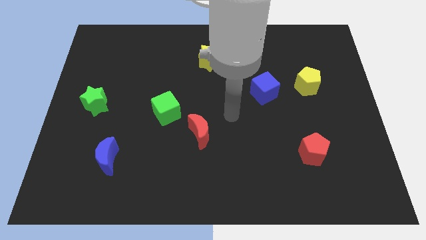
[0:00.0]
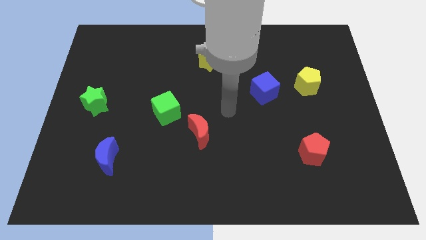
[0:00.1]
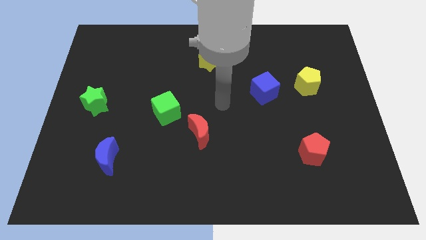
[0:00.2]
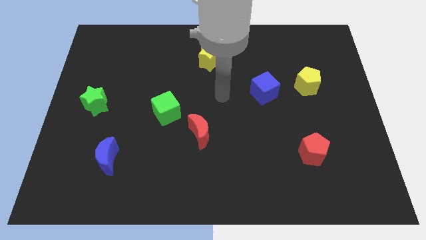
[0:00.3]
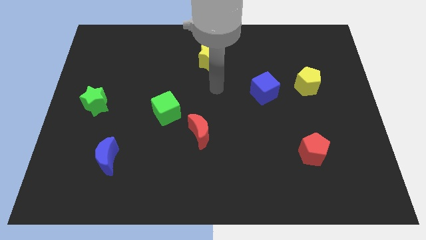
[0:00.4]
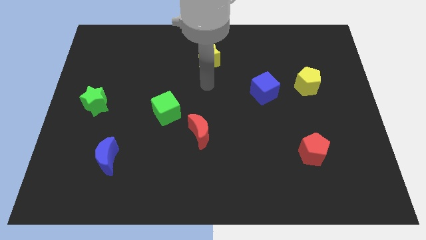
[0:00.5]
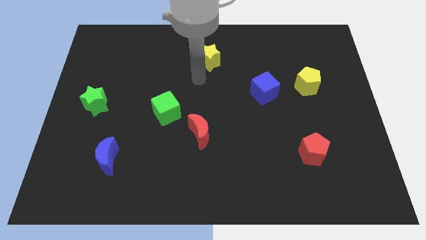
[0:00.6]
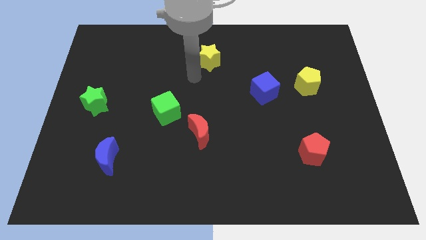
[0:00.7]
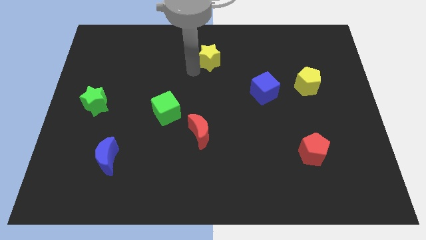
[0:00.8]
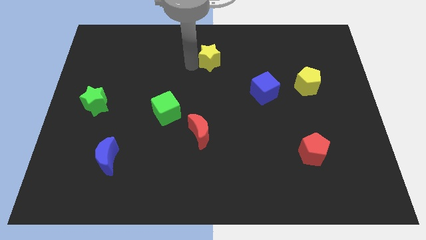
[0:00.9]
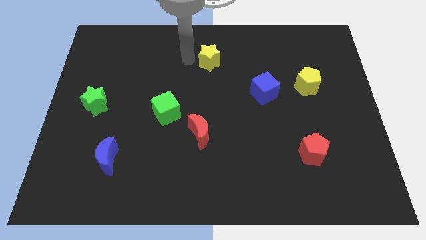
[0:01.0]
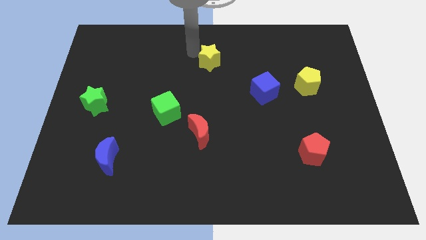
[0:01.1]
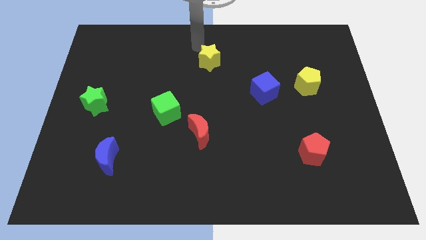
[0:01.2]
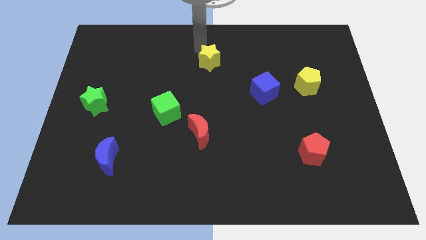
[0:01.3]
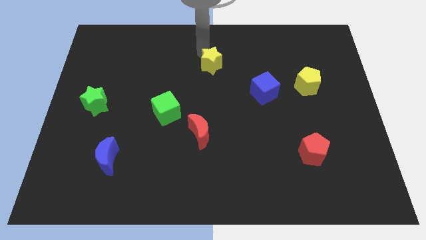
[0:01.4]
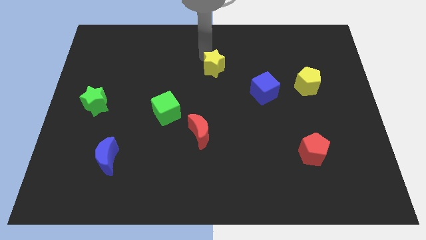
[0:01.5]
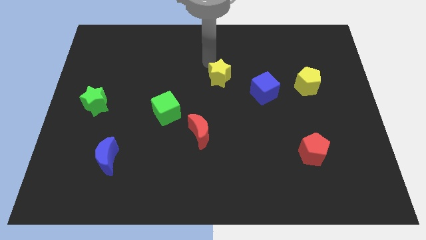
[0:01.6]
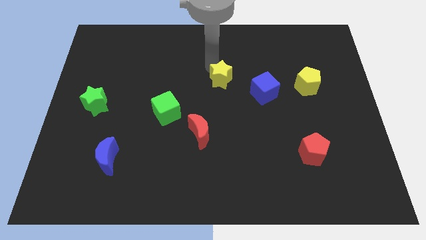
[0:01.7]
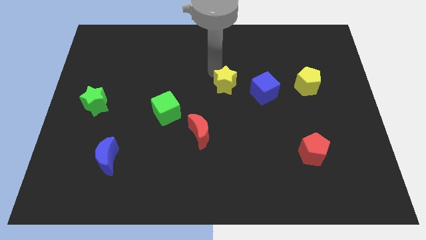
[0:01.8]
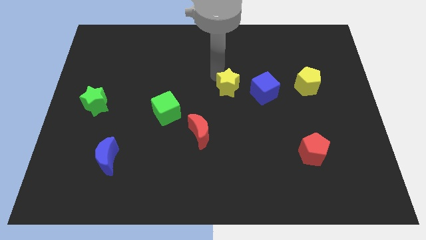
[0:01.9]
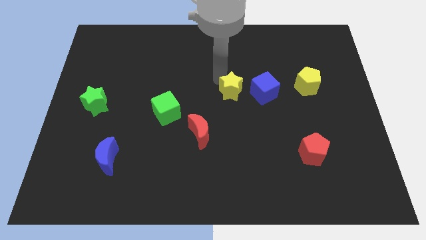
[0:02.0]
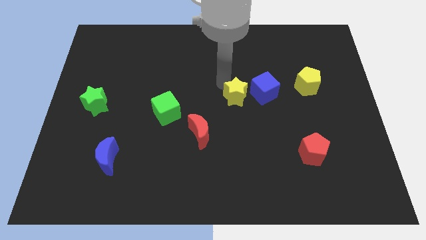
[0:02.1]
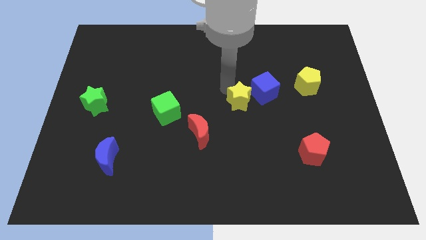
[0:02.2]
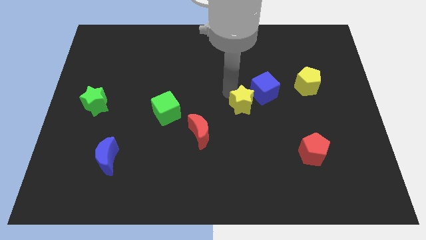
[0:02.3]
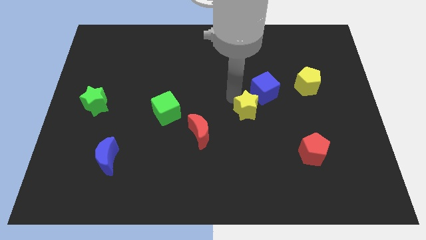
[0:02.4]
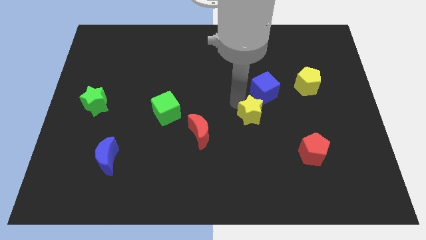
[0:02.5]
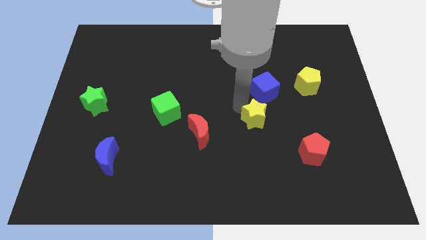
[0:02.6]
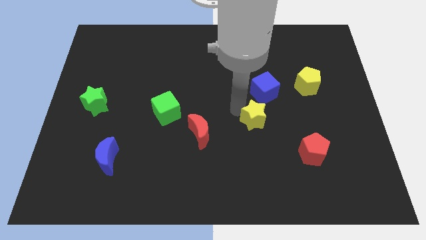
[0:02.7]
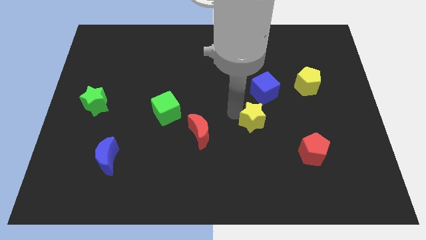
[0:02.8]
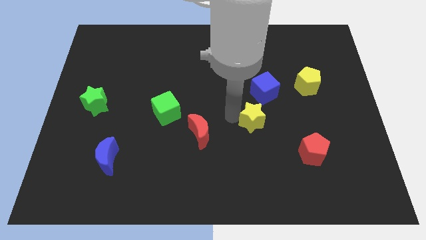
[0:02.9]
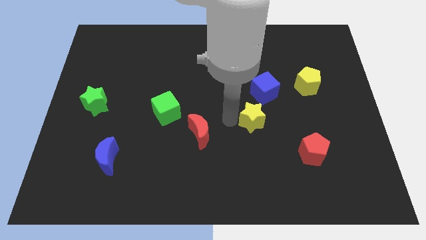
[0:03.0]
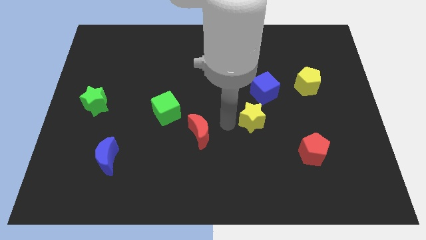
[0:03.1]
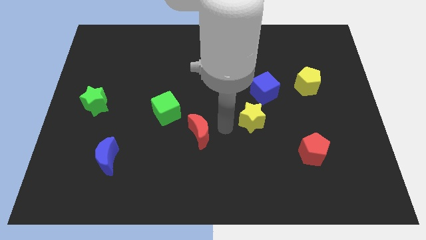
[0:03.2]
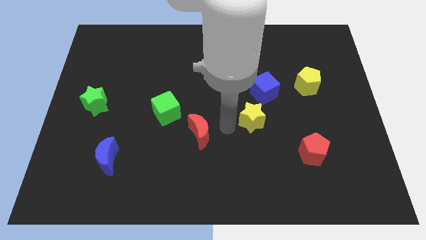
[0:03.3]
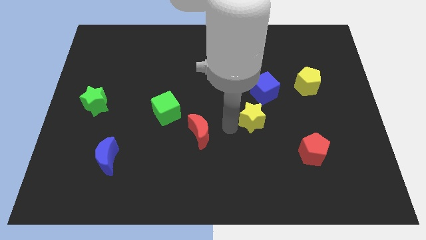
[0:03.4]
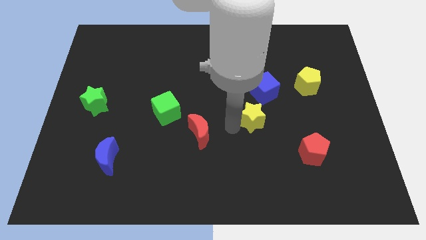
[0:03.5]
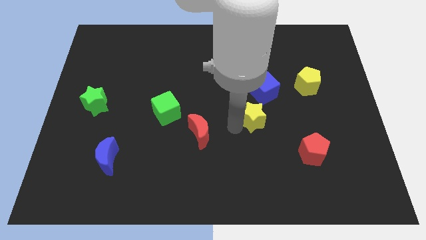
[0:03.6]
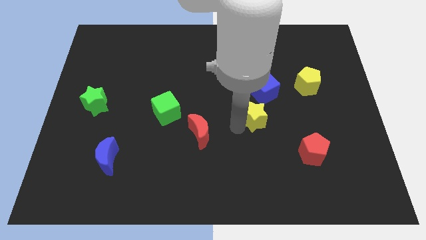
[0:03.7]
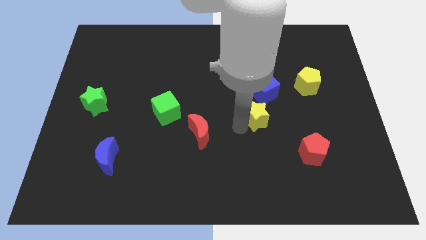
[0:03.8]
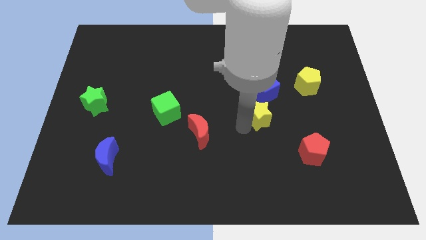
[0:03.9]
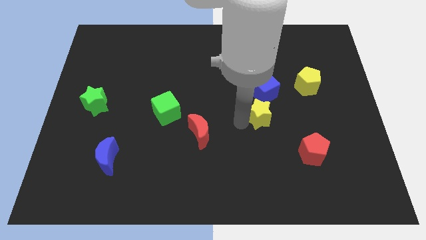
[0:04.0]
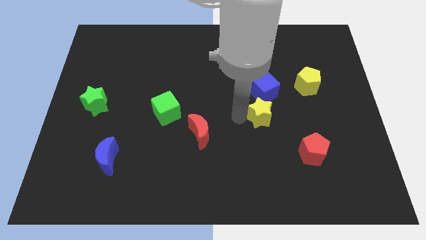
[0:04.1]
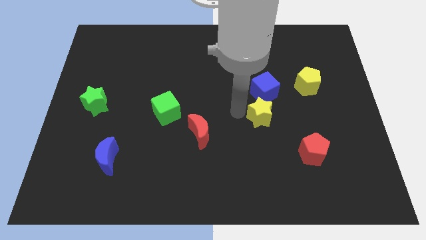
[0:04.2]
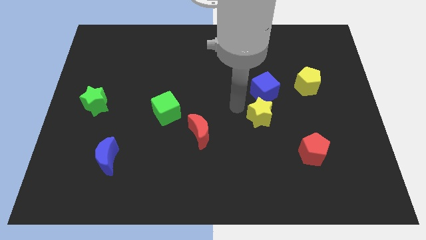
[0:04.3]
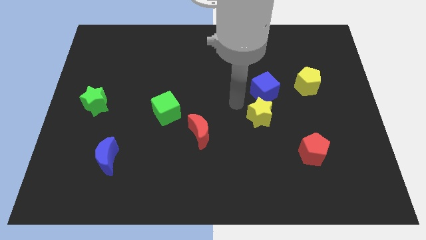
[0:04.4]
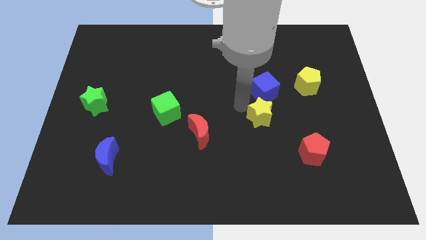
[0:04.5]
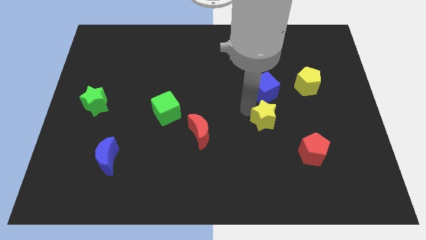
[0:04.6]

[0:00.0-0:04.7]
push the yellow star to the top left of the red pentagon

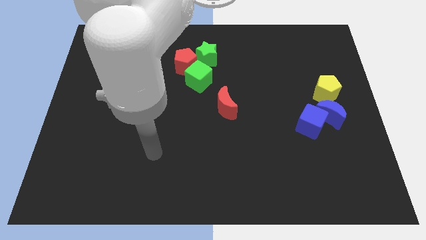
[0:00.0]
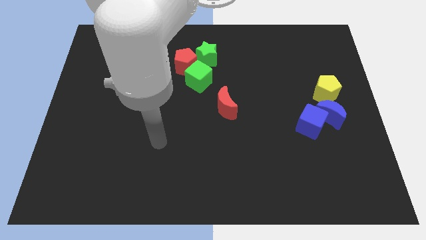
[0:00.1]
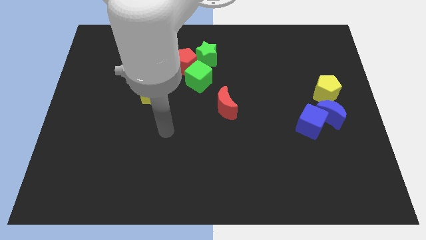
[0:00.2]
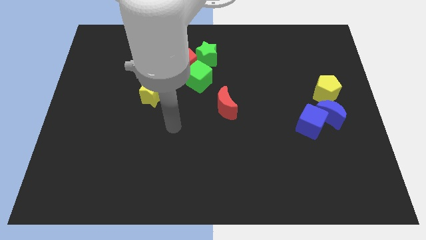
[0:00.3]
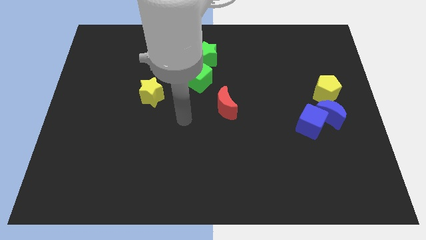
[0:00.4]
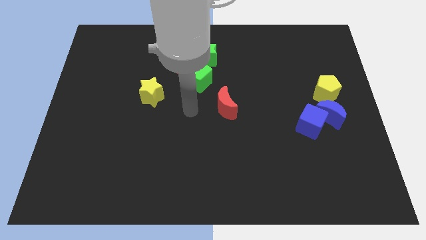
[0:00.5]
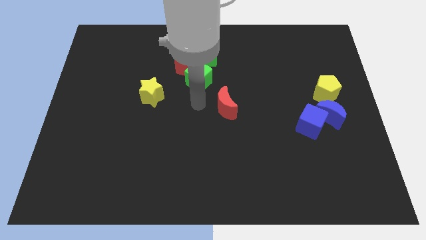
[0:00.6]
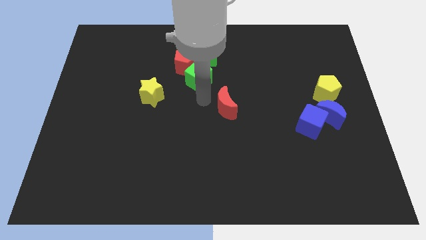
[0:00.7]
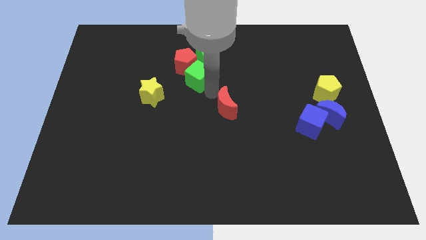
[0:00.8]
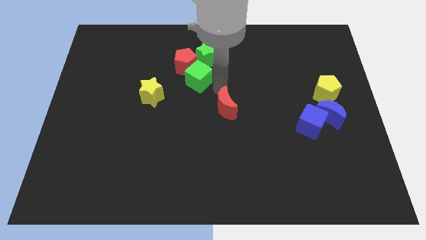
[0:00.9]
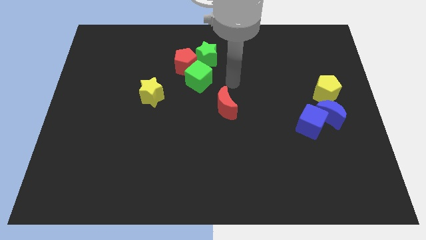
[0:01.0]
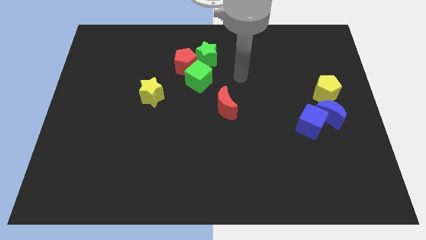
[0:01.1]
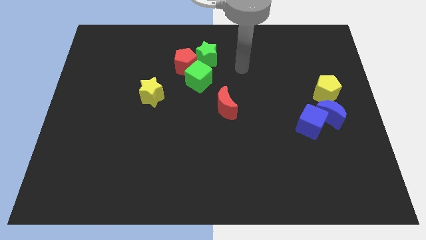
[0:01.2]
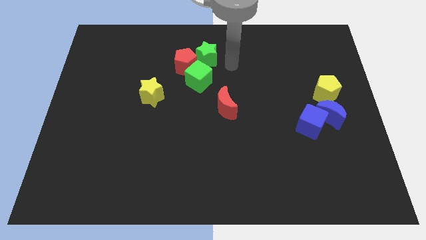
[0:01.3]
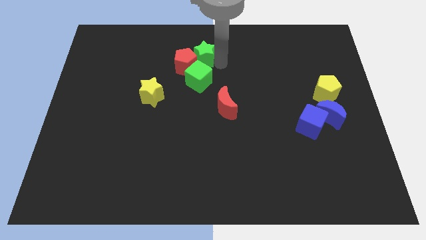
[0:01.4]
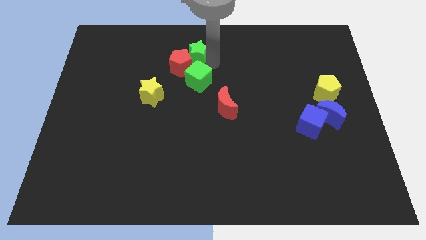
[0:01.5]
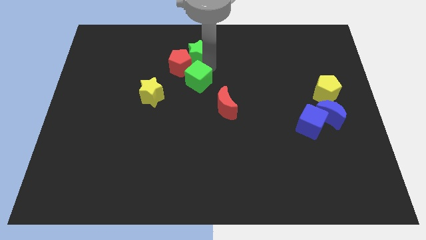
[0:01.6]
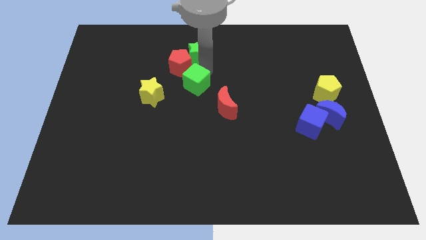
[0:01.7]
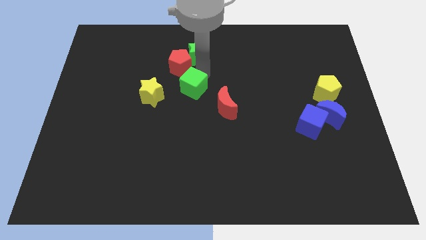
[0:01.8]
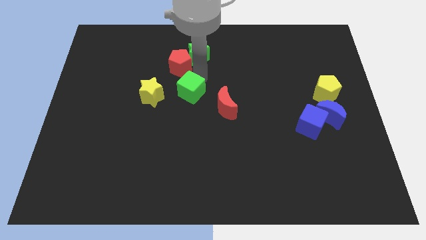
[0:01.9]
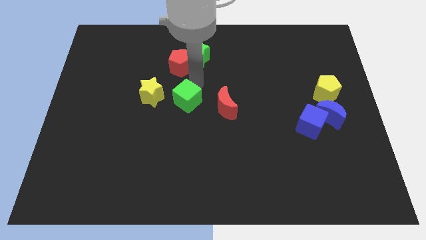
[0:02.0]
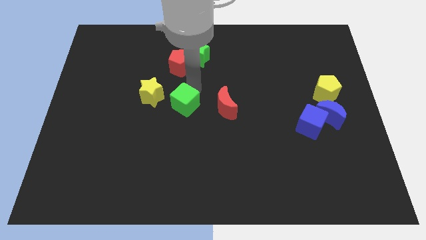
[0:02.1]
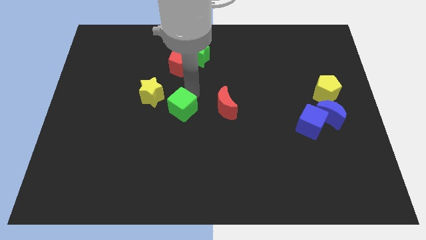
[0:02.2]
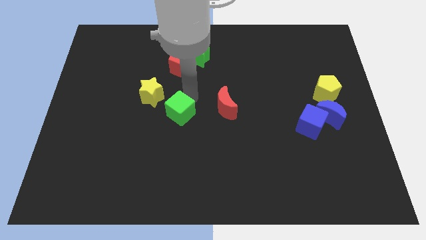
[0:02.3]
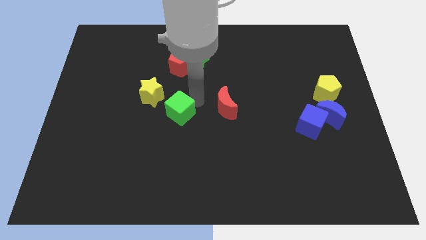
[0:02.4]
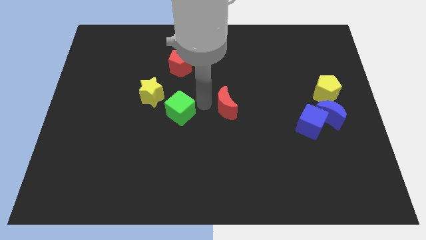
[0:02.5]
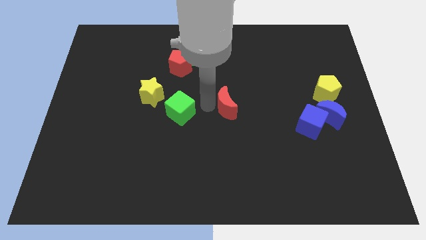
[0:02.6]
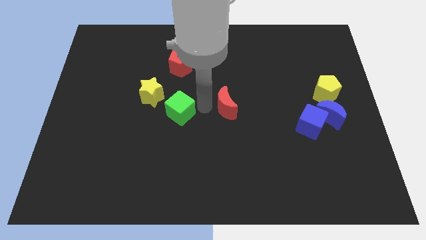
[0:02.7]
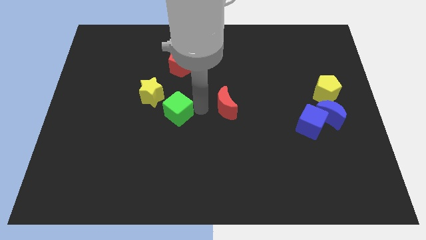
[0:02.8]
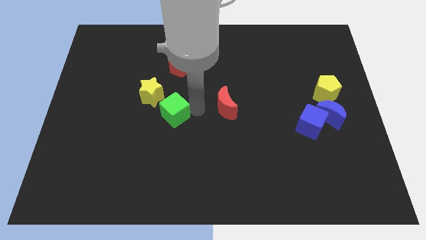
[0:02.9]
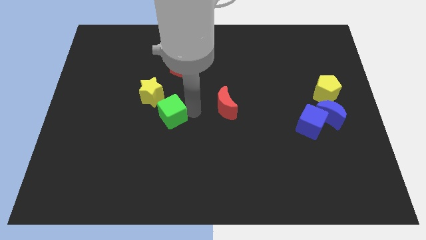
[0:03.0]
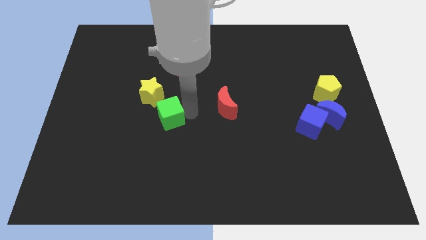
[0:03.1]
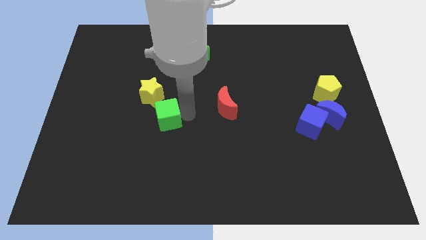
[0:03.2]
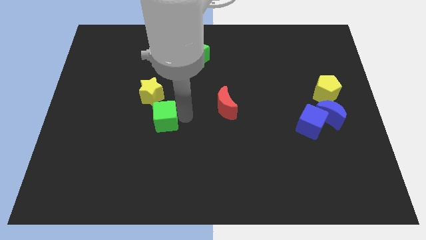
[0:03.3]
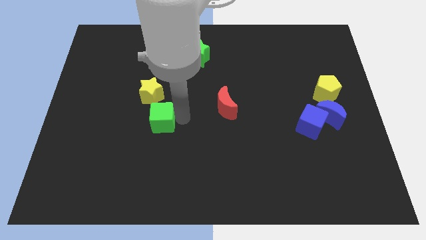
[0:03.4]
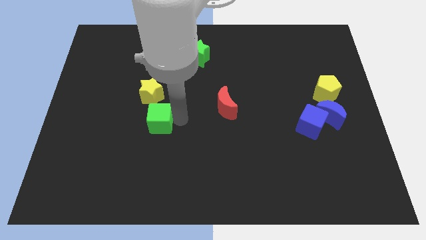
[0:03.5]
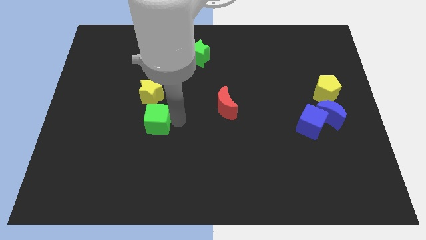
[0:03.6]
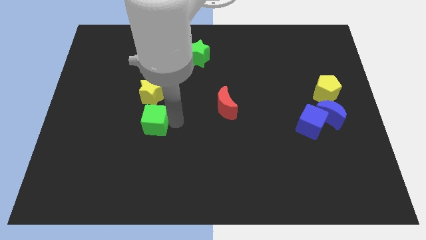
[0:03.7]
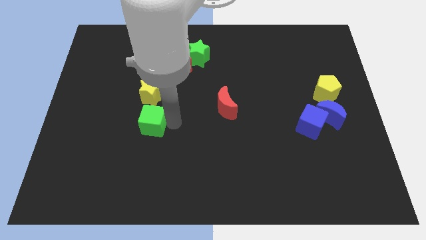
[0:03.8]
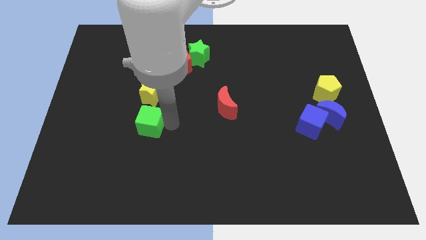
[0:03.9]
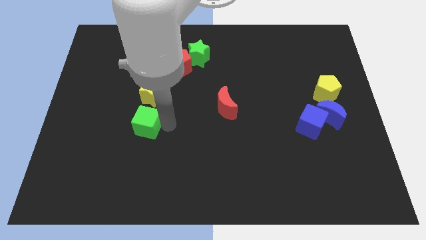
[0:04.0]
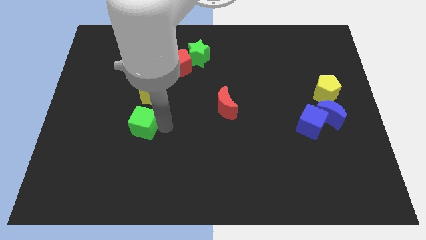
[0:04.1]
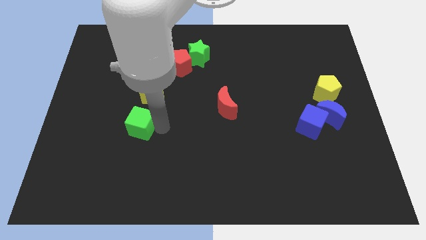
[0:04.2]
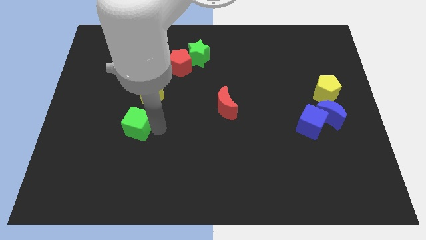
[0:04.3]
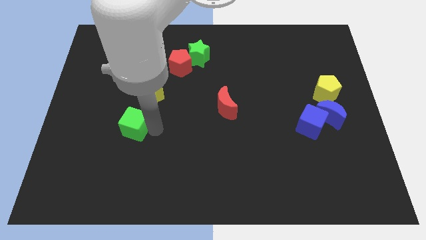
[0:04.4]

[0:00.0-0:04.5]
put the green cube to the bottom left of the yellow star
